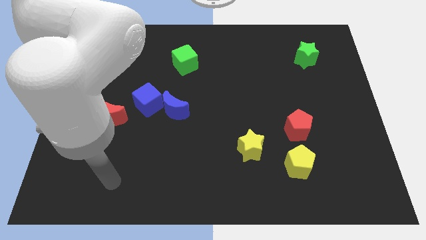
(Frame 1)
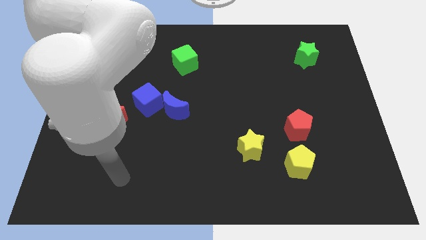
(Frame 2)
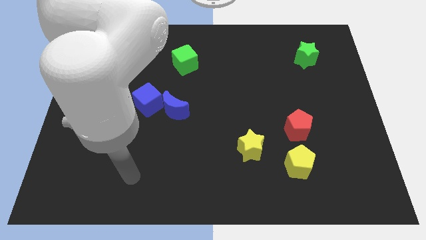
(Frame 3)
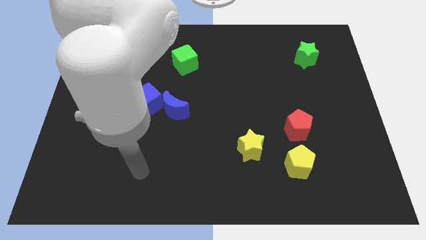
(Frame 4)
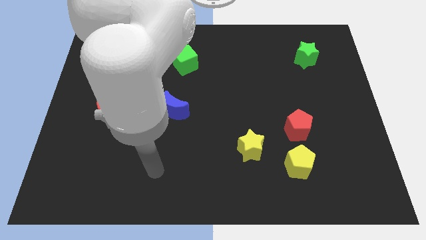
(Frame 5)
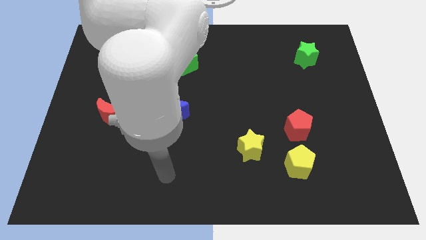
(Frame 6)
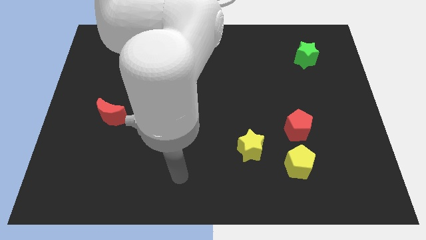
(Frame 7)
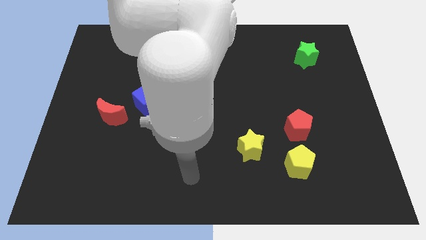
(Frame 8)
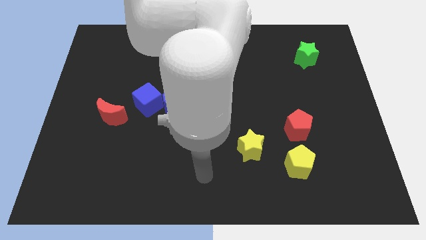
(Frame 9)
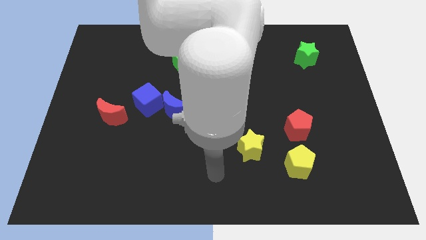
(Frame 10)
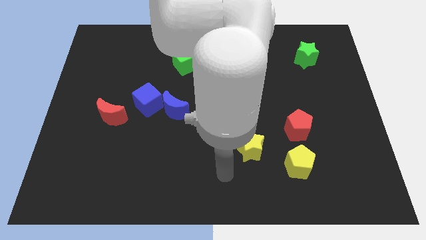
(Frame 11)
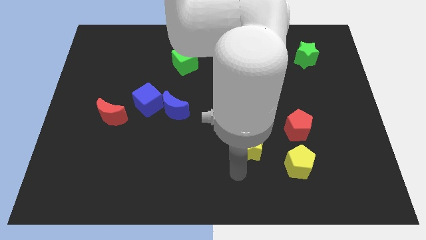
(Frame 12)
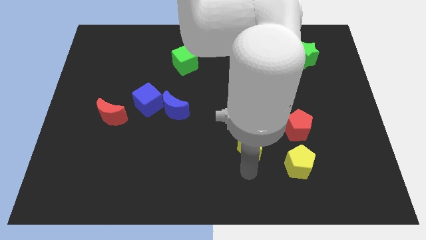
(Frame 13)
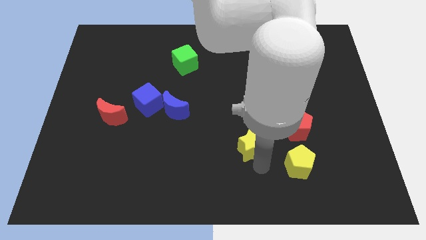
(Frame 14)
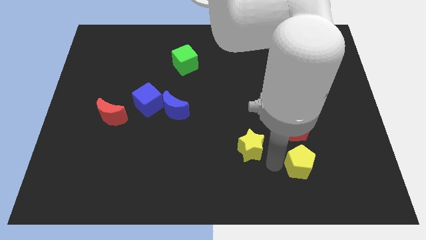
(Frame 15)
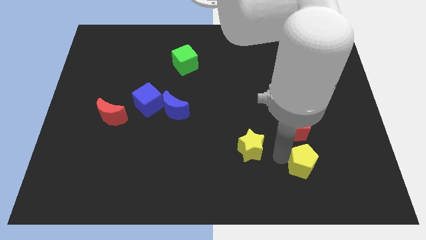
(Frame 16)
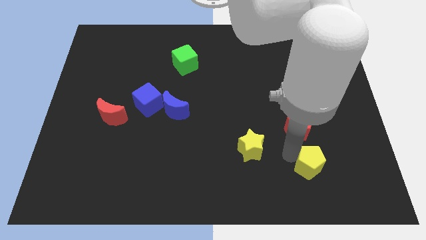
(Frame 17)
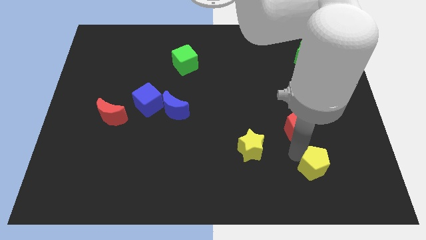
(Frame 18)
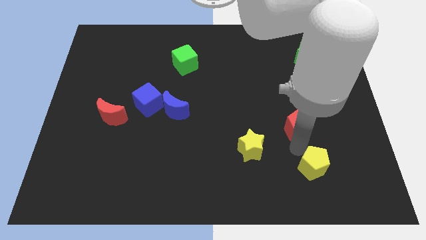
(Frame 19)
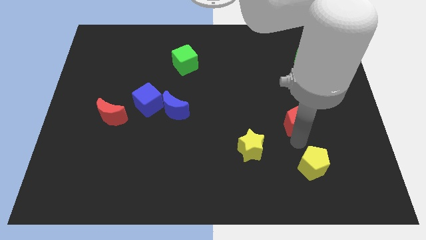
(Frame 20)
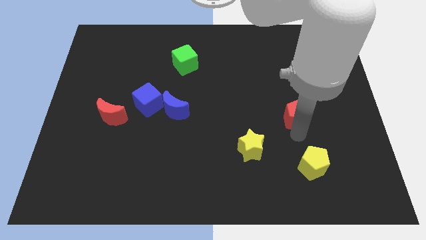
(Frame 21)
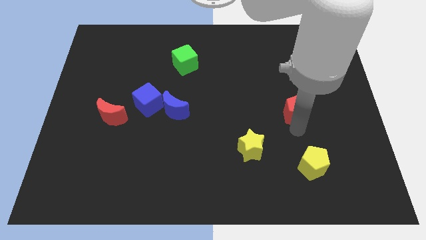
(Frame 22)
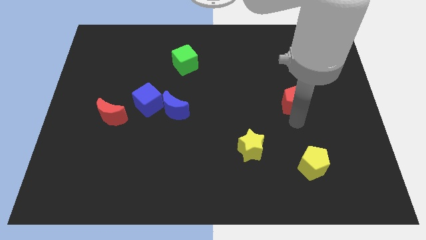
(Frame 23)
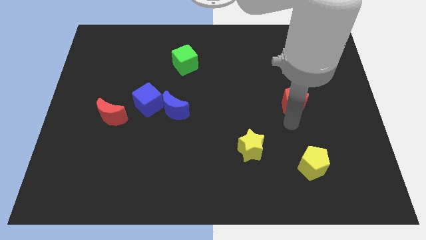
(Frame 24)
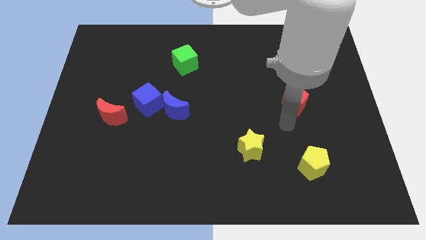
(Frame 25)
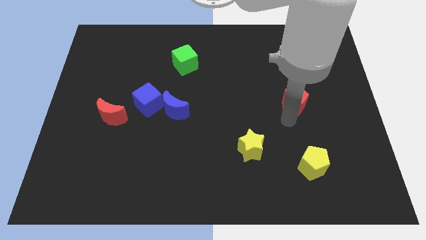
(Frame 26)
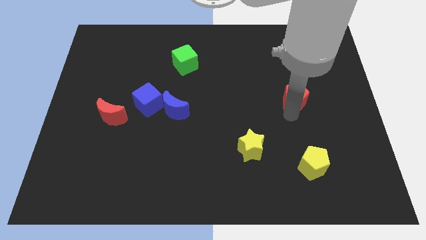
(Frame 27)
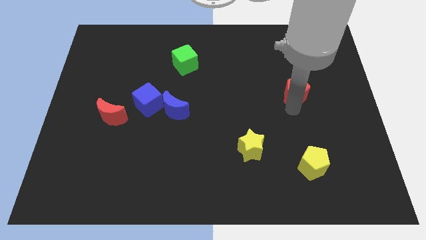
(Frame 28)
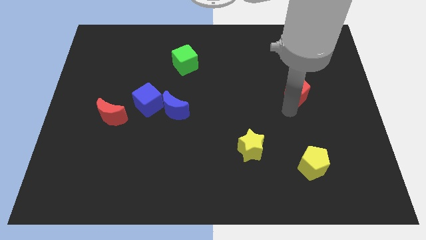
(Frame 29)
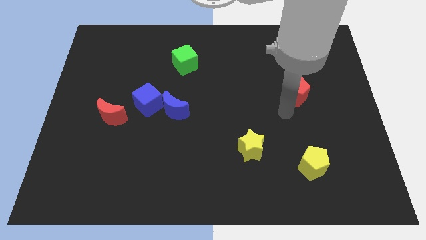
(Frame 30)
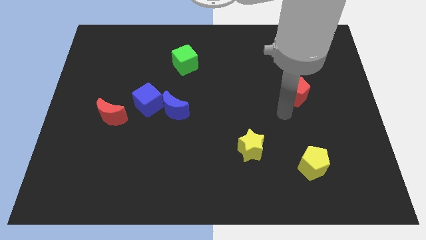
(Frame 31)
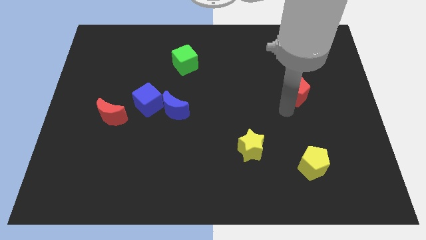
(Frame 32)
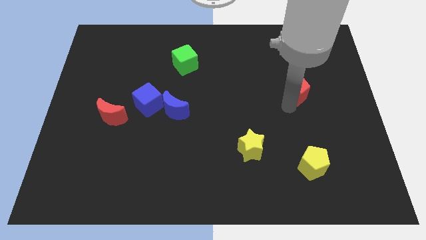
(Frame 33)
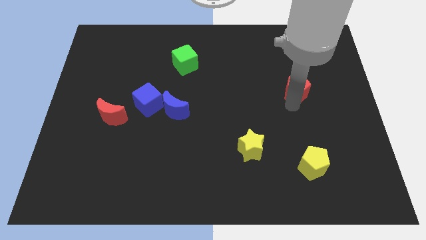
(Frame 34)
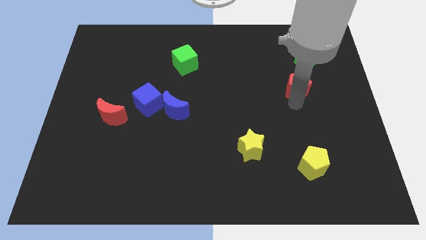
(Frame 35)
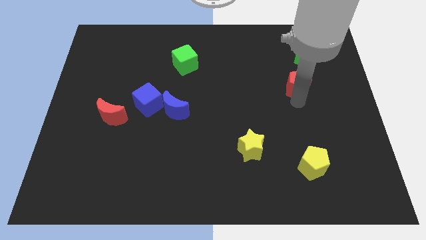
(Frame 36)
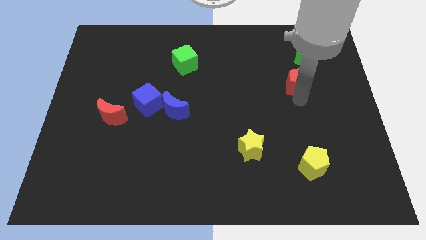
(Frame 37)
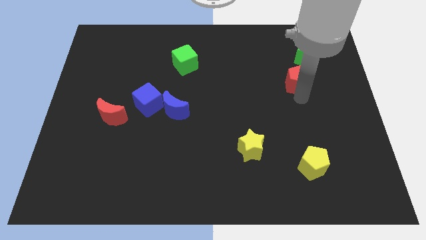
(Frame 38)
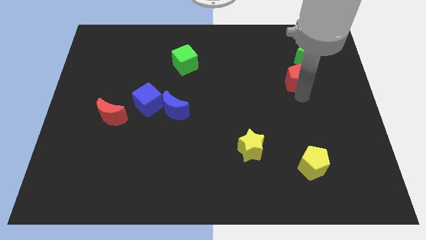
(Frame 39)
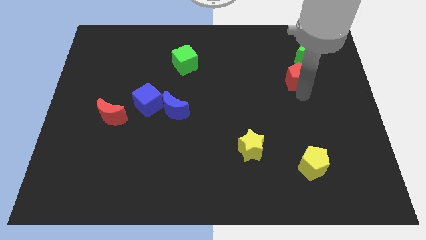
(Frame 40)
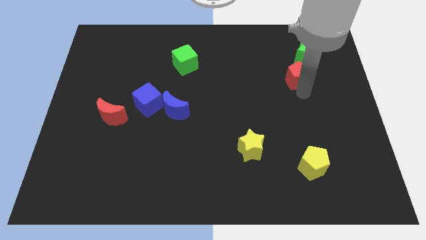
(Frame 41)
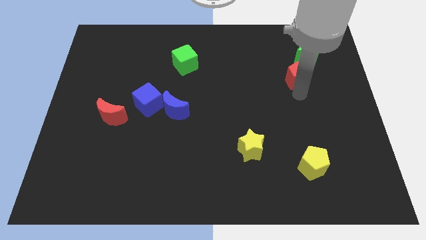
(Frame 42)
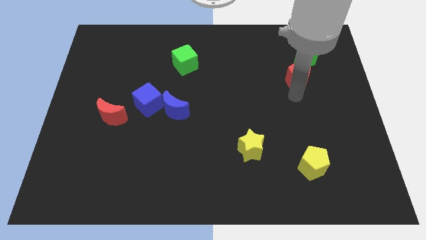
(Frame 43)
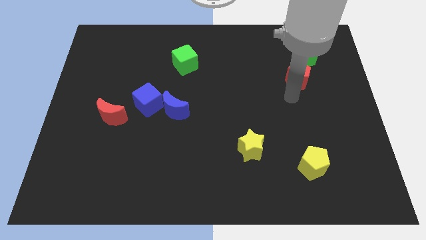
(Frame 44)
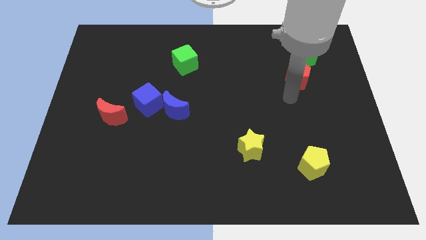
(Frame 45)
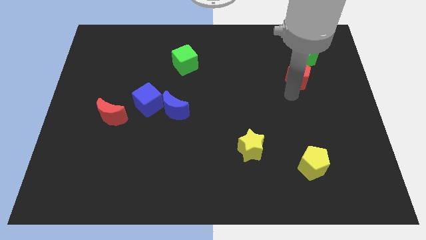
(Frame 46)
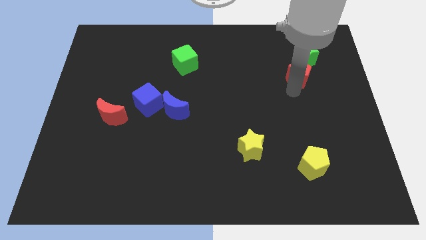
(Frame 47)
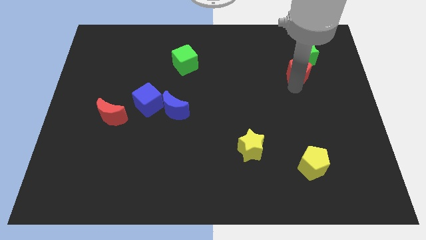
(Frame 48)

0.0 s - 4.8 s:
slide the red pentagon close to the green star

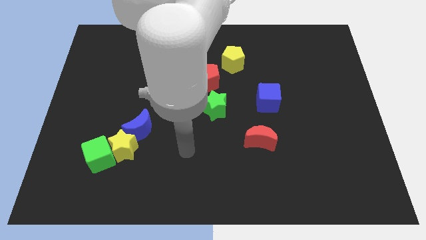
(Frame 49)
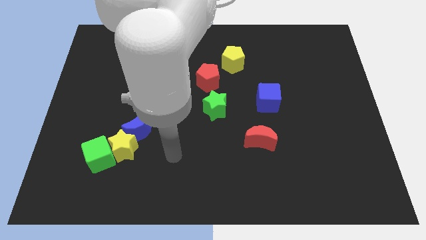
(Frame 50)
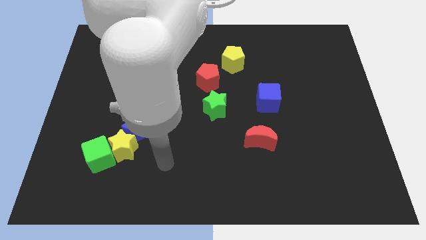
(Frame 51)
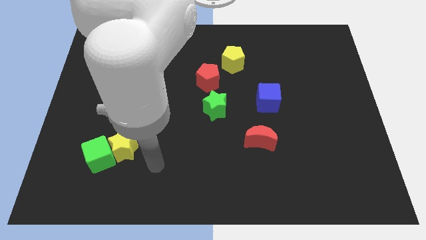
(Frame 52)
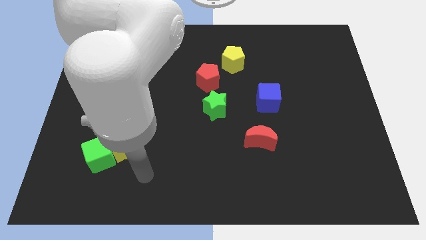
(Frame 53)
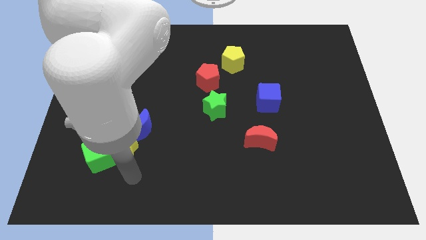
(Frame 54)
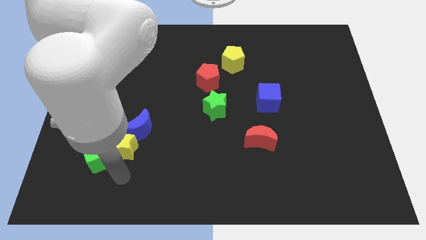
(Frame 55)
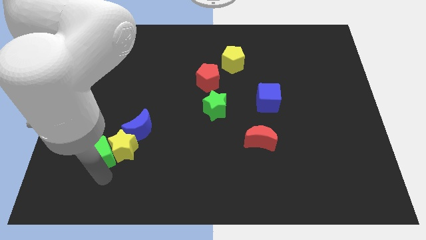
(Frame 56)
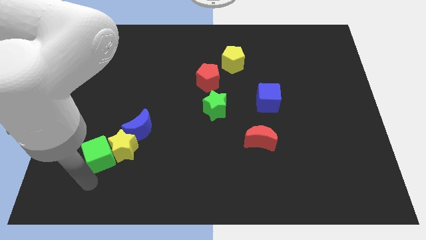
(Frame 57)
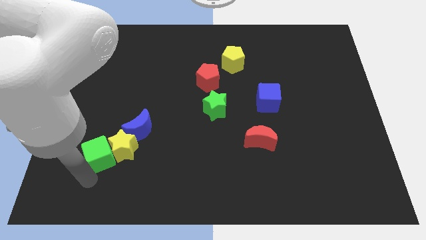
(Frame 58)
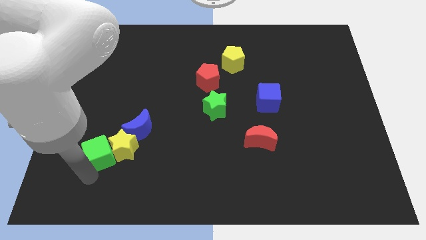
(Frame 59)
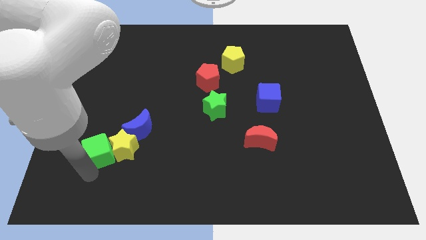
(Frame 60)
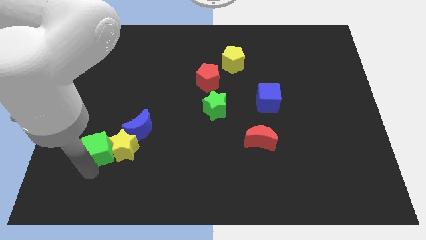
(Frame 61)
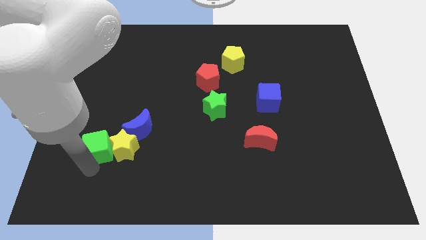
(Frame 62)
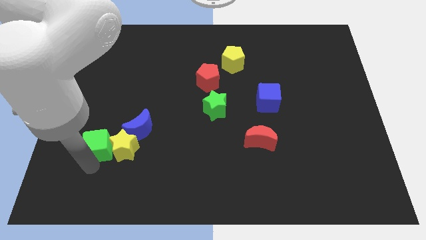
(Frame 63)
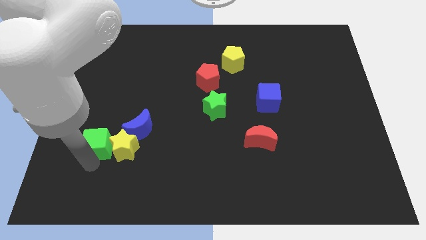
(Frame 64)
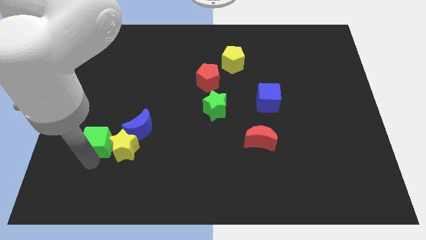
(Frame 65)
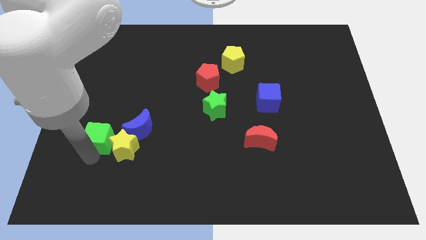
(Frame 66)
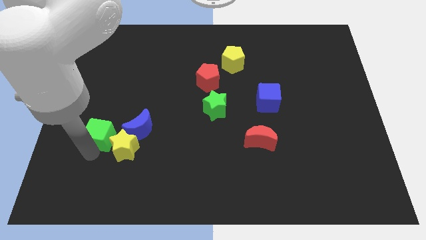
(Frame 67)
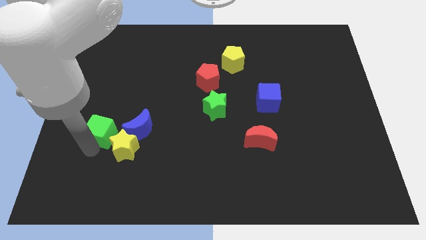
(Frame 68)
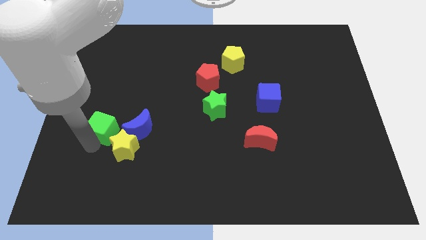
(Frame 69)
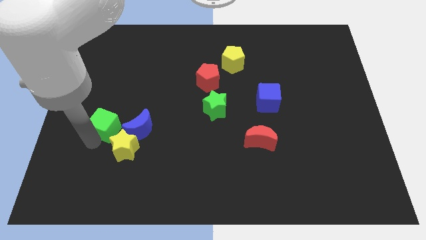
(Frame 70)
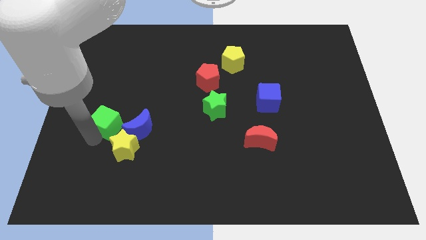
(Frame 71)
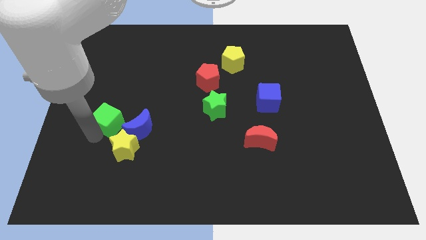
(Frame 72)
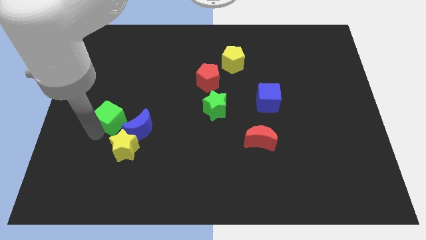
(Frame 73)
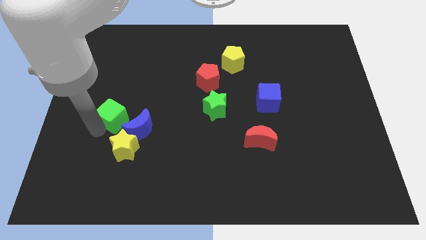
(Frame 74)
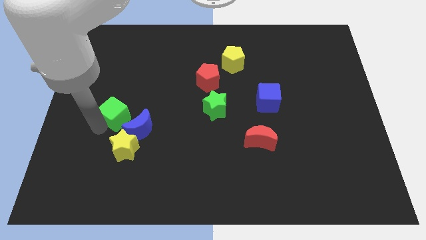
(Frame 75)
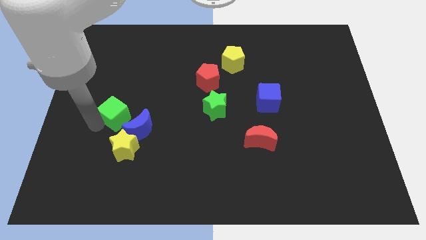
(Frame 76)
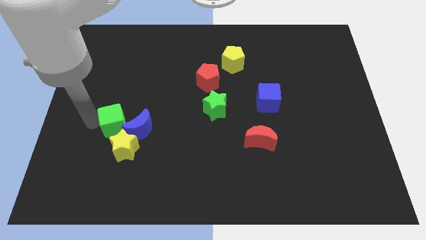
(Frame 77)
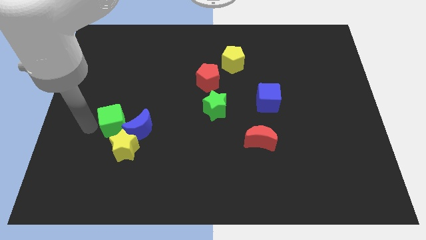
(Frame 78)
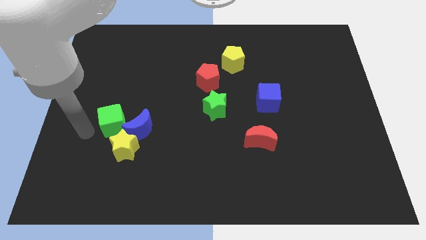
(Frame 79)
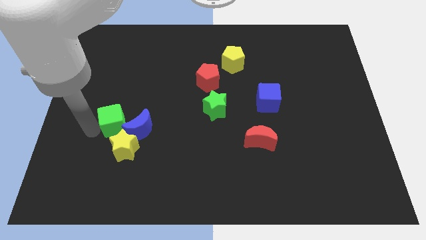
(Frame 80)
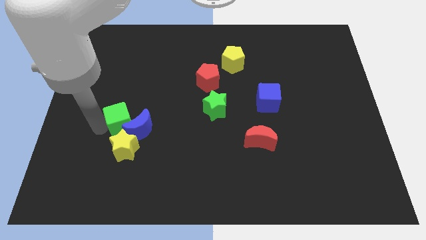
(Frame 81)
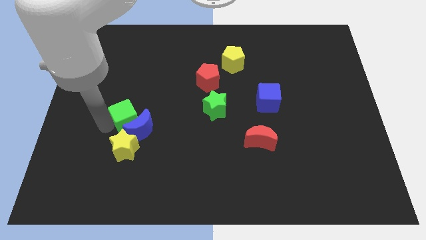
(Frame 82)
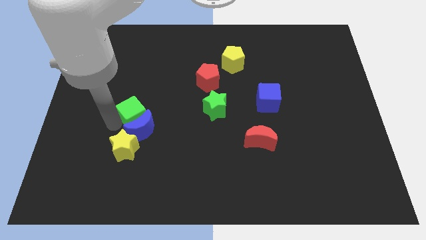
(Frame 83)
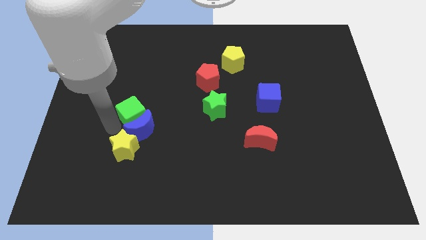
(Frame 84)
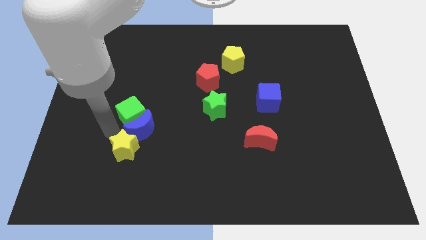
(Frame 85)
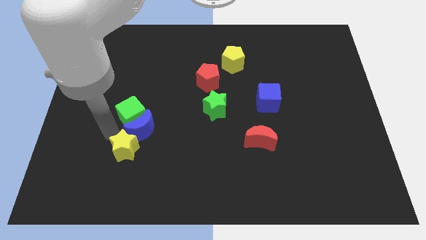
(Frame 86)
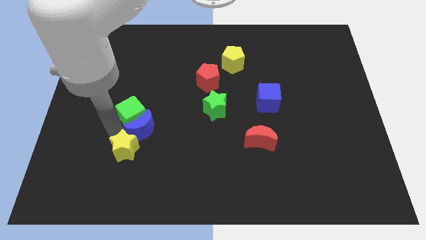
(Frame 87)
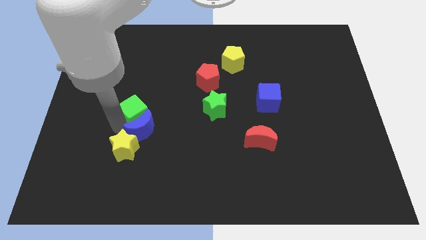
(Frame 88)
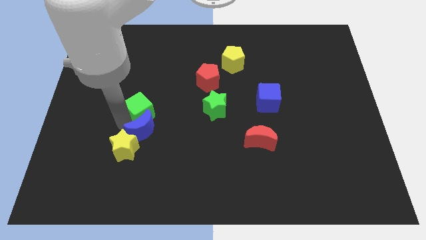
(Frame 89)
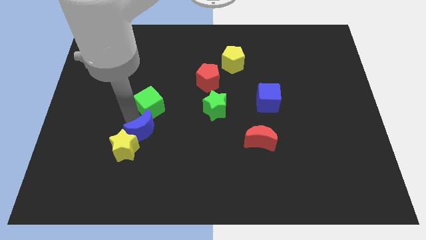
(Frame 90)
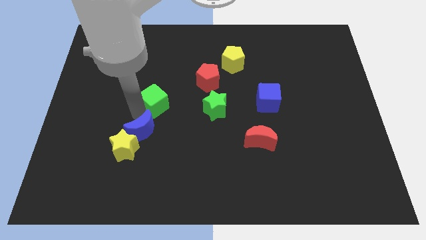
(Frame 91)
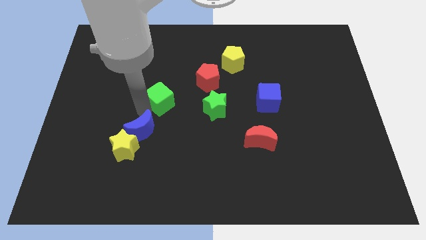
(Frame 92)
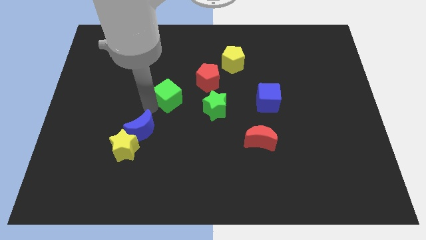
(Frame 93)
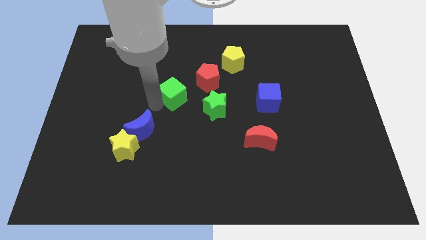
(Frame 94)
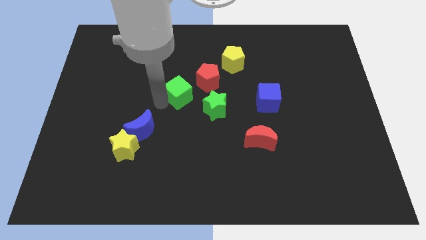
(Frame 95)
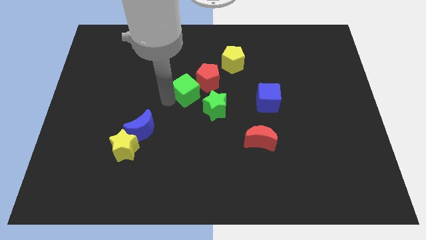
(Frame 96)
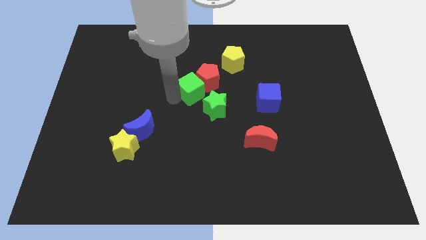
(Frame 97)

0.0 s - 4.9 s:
move the green cube close to the red pentagon
